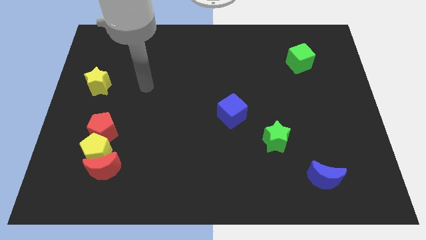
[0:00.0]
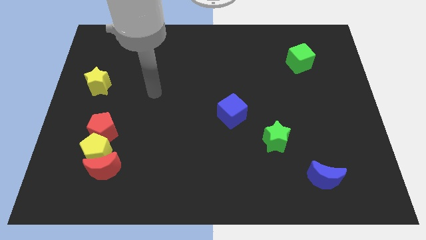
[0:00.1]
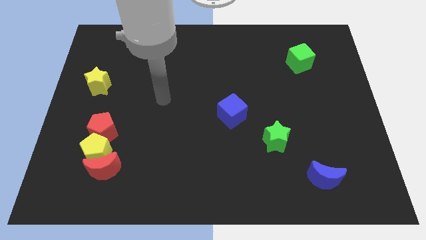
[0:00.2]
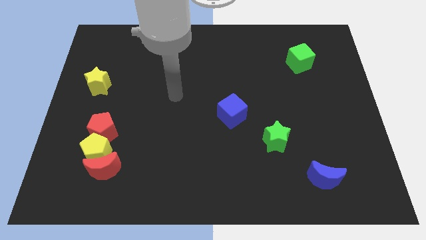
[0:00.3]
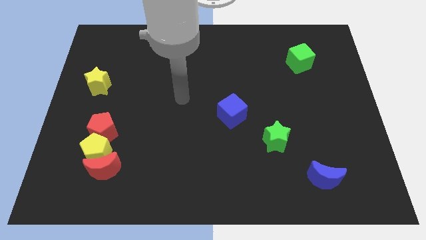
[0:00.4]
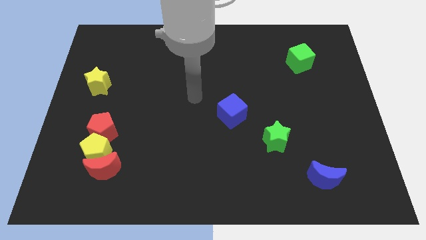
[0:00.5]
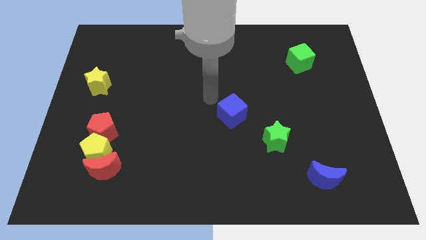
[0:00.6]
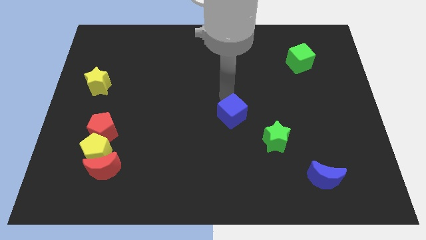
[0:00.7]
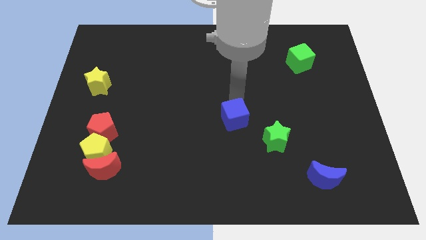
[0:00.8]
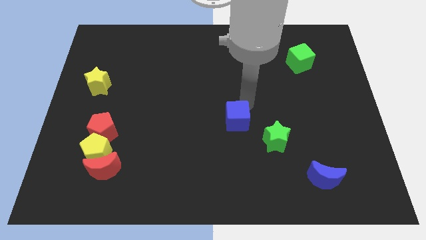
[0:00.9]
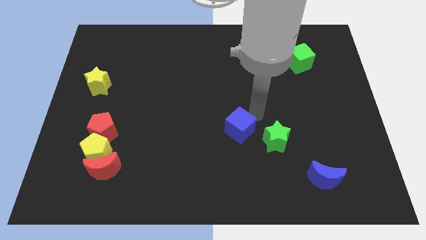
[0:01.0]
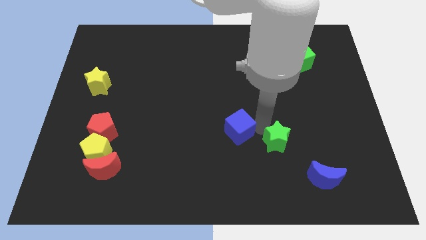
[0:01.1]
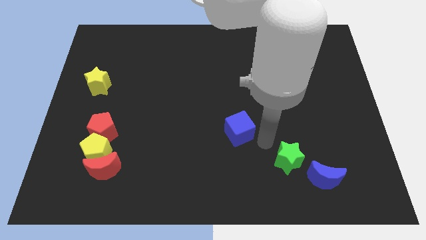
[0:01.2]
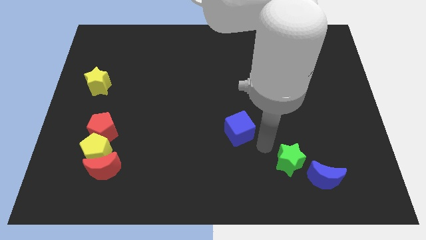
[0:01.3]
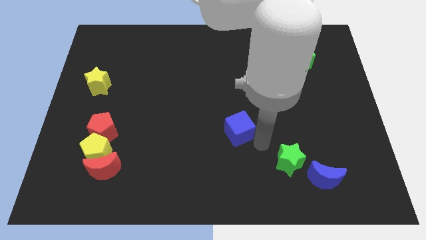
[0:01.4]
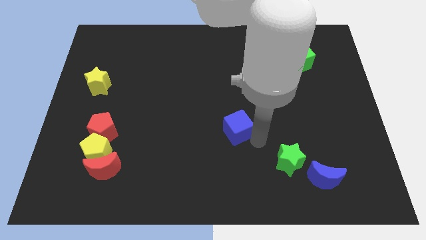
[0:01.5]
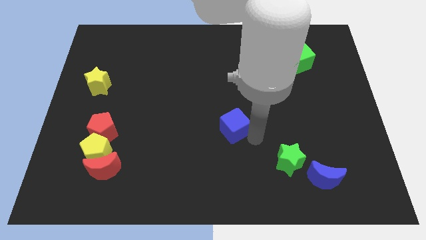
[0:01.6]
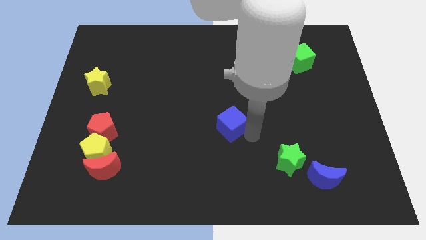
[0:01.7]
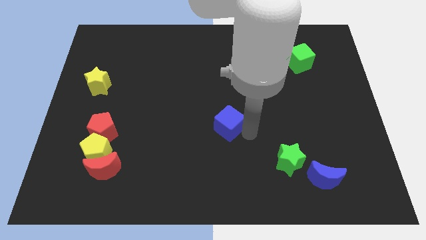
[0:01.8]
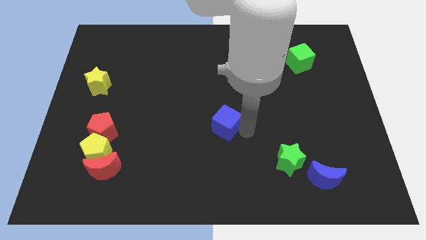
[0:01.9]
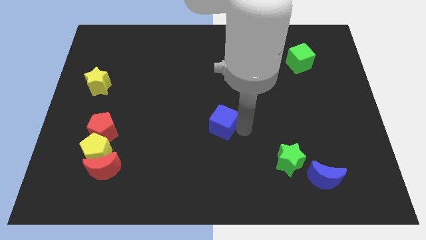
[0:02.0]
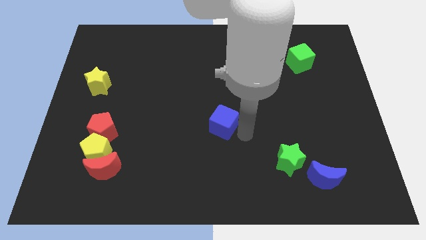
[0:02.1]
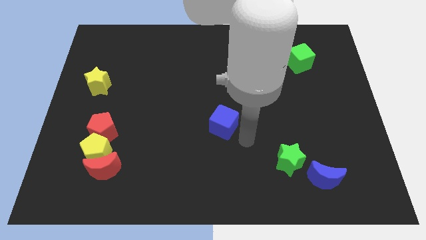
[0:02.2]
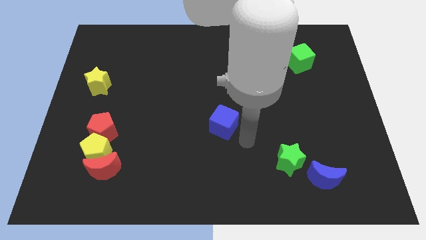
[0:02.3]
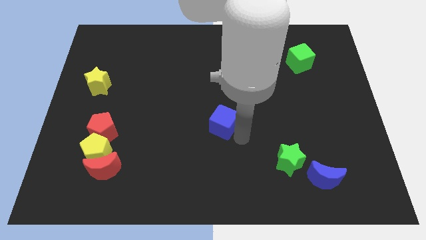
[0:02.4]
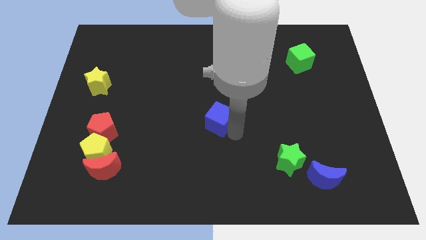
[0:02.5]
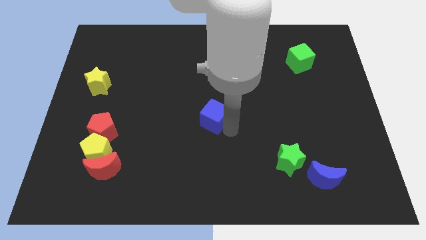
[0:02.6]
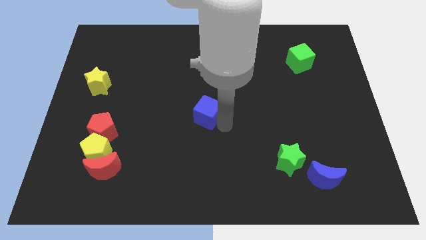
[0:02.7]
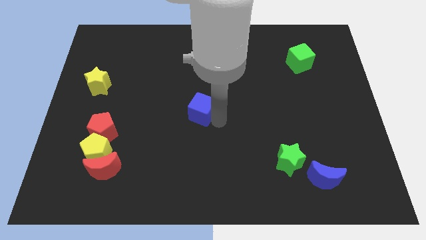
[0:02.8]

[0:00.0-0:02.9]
slide the blue cube to the left a little bit

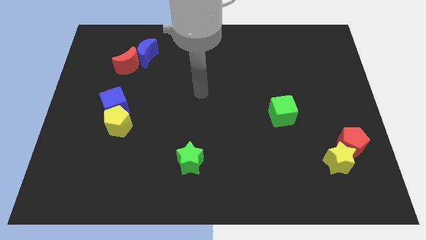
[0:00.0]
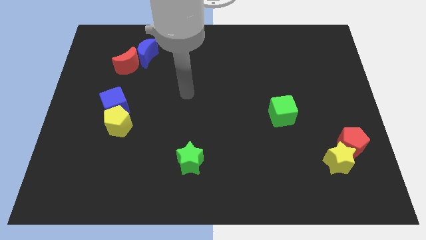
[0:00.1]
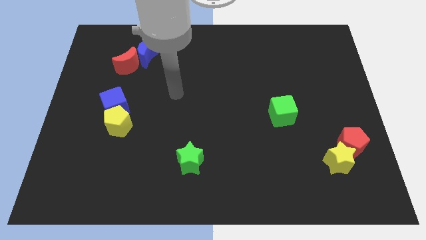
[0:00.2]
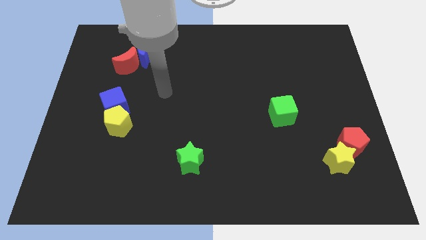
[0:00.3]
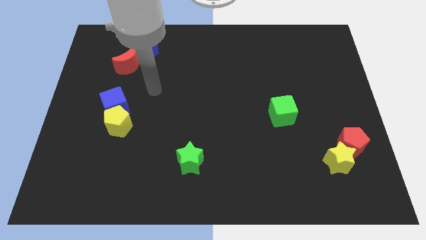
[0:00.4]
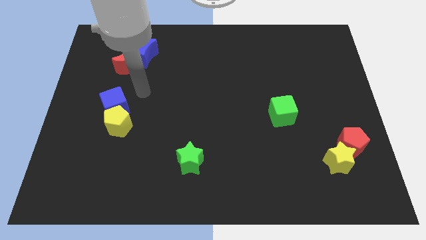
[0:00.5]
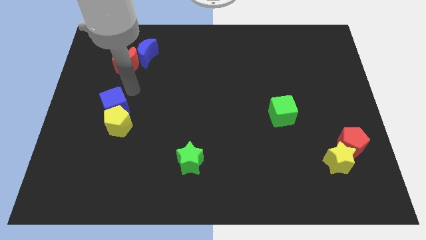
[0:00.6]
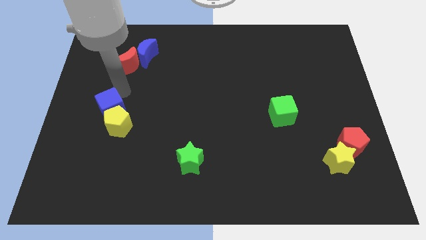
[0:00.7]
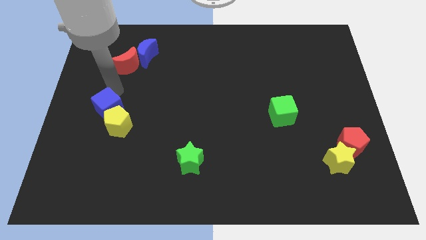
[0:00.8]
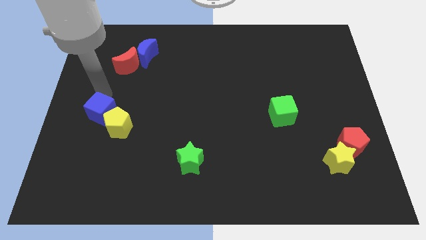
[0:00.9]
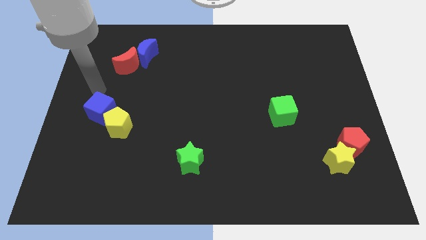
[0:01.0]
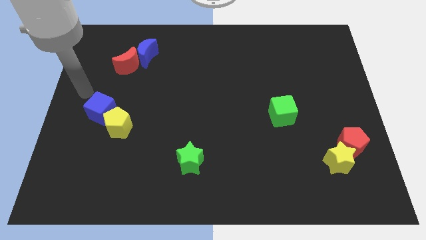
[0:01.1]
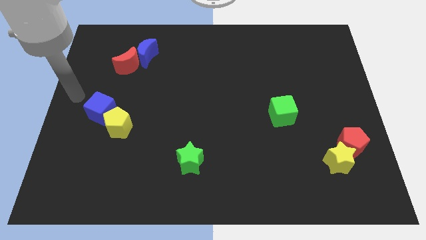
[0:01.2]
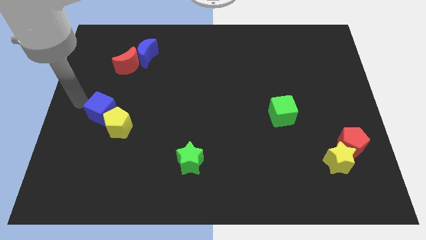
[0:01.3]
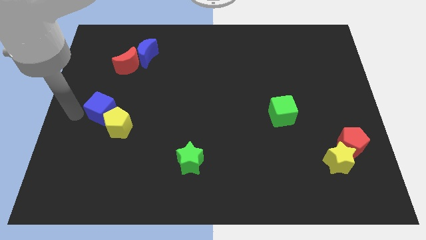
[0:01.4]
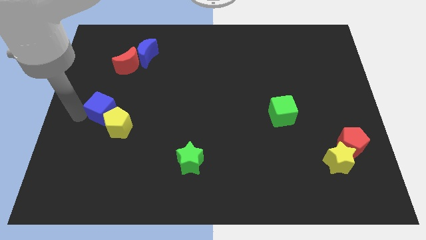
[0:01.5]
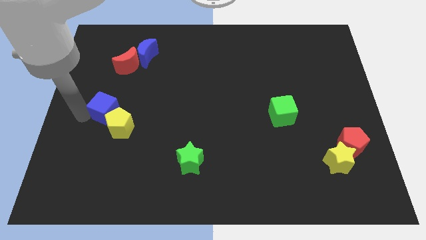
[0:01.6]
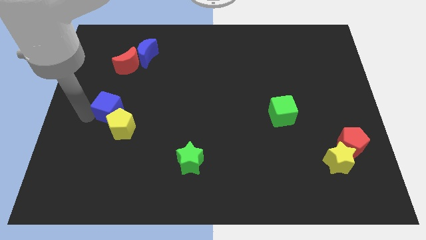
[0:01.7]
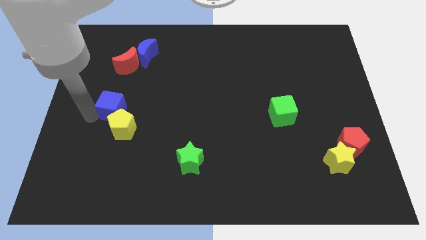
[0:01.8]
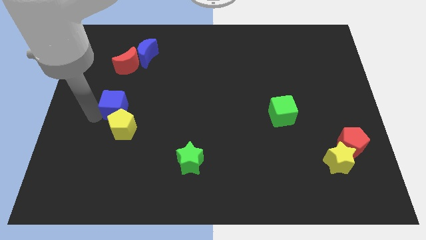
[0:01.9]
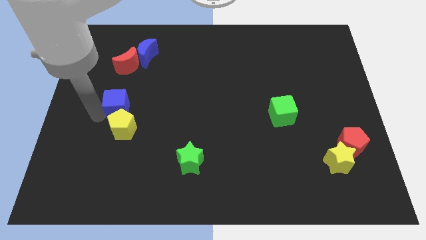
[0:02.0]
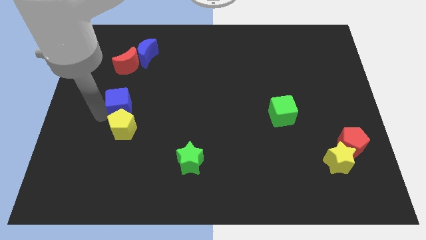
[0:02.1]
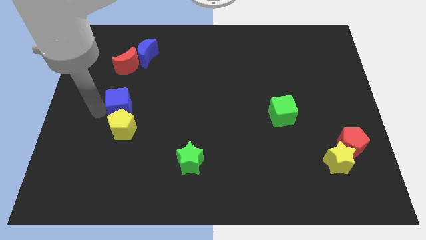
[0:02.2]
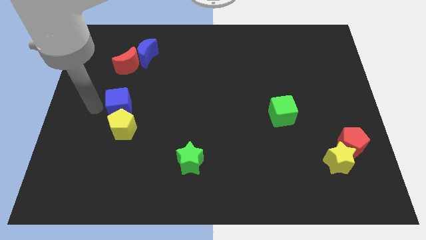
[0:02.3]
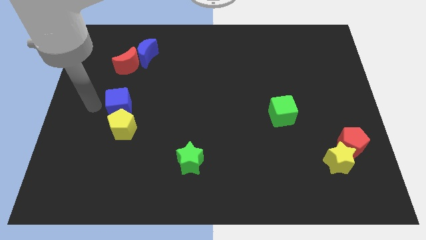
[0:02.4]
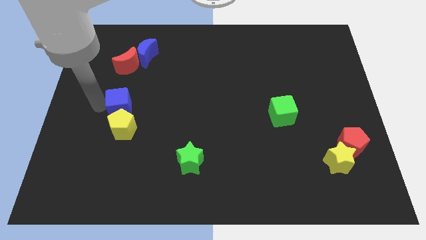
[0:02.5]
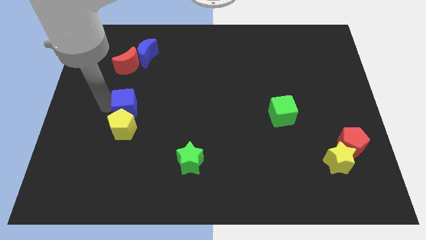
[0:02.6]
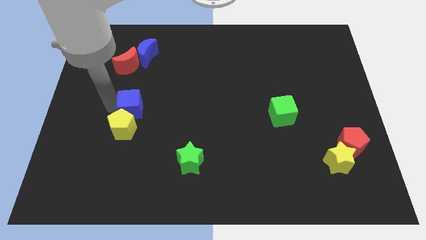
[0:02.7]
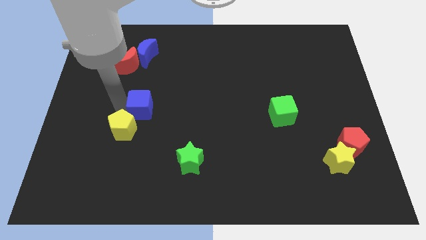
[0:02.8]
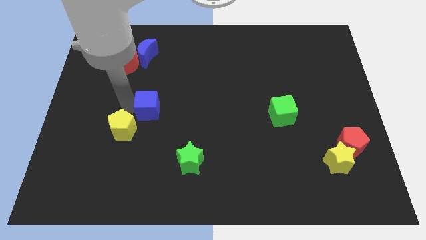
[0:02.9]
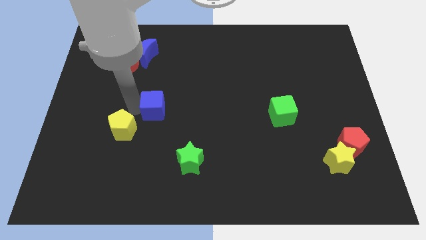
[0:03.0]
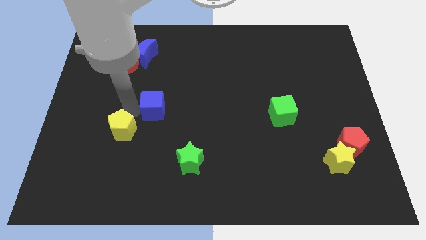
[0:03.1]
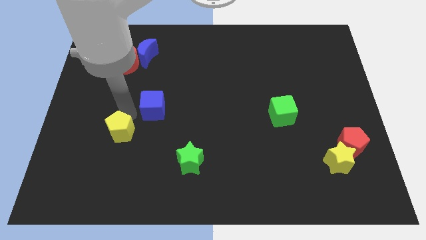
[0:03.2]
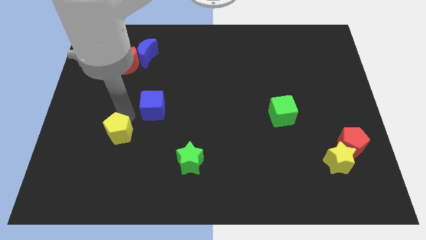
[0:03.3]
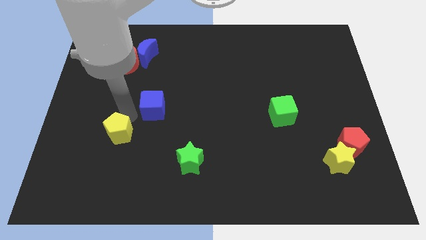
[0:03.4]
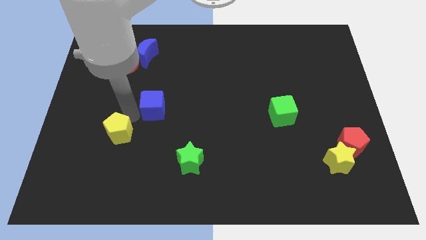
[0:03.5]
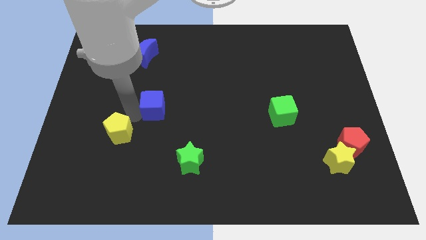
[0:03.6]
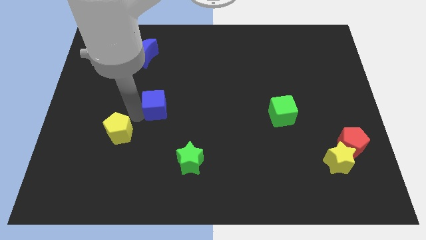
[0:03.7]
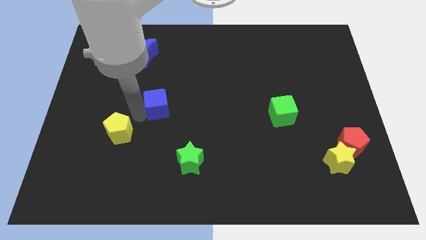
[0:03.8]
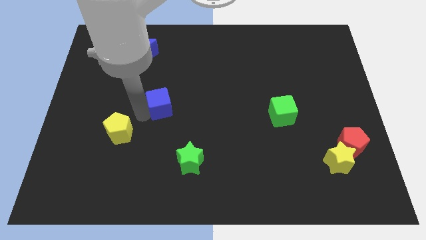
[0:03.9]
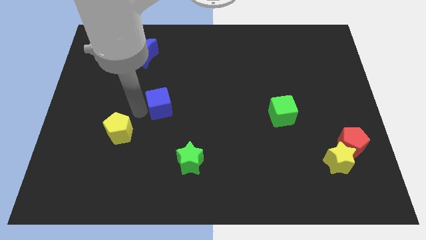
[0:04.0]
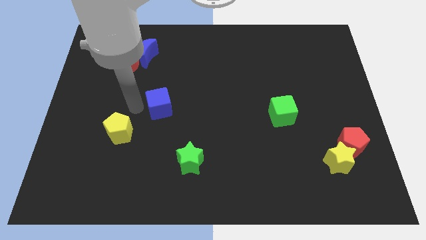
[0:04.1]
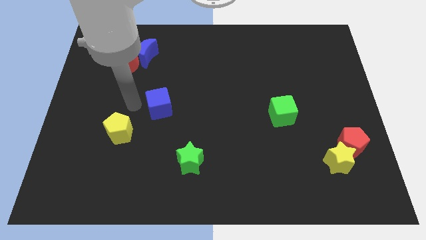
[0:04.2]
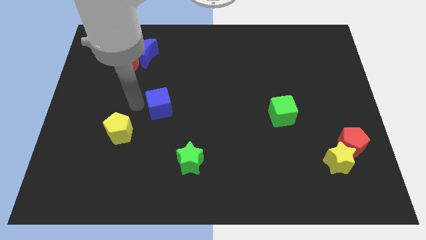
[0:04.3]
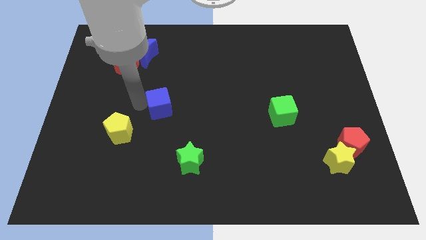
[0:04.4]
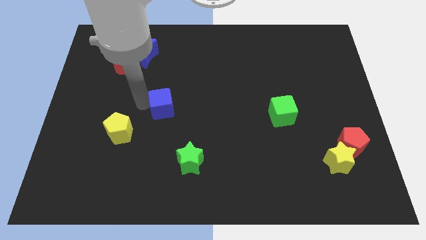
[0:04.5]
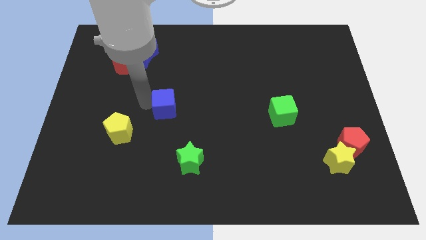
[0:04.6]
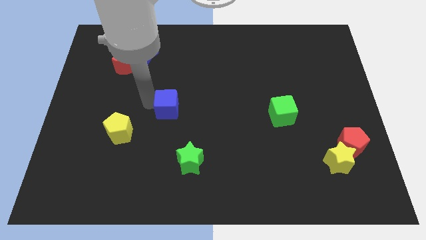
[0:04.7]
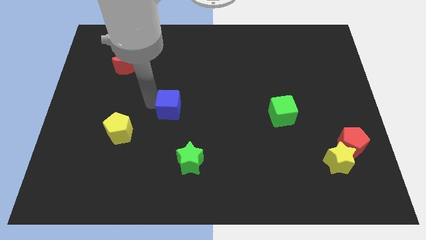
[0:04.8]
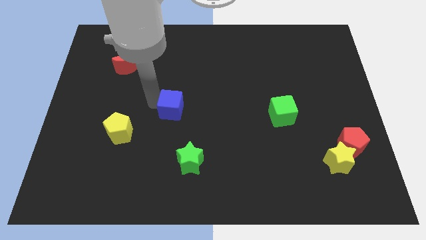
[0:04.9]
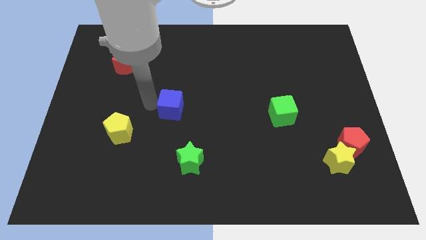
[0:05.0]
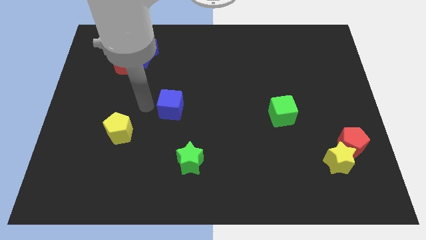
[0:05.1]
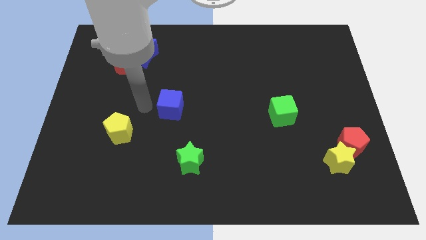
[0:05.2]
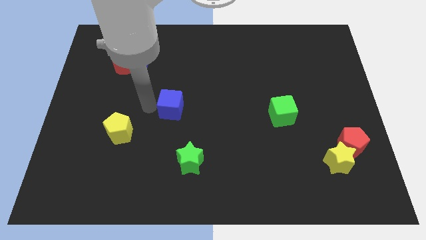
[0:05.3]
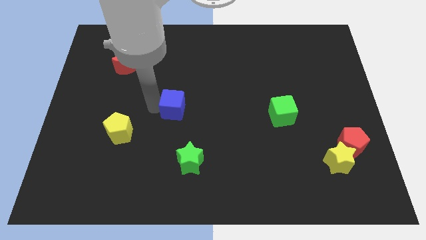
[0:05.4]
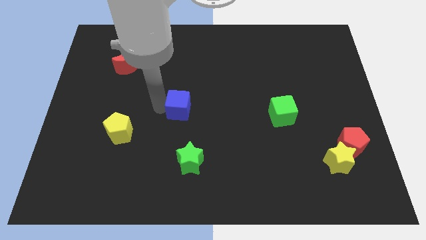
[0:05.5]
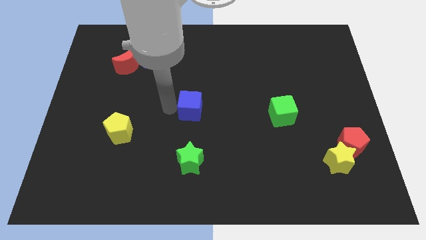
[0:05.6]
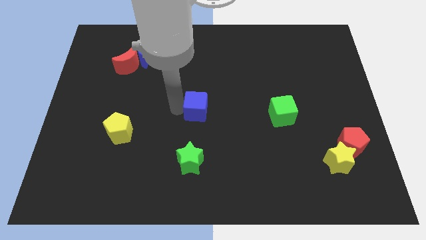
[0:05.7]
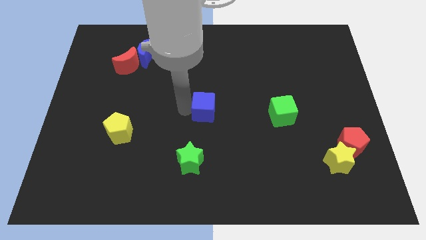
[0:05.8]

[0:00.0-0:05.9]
slide the blue cube to the right
